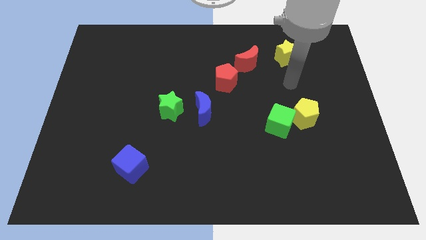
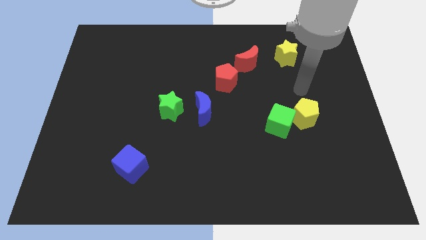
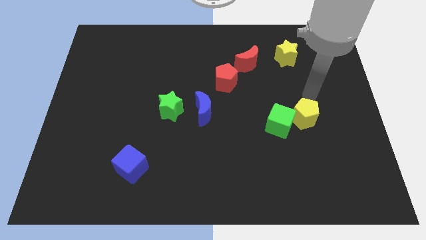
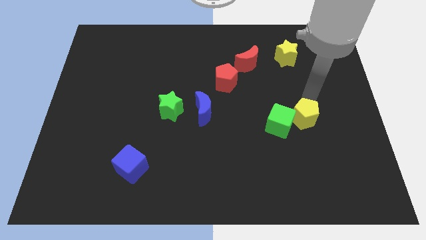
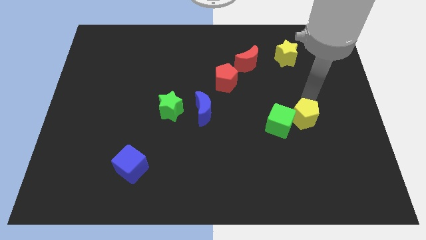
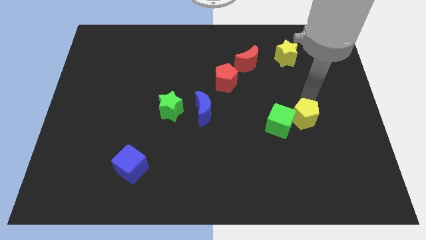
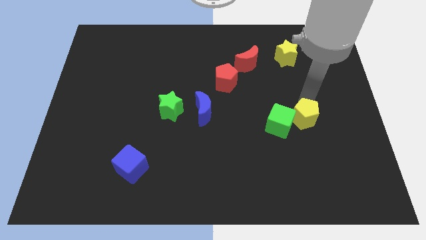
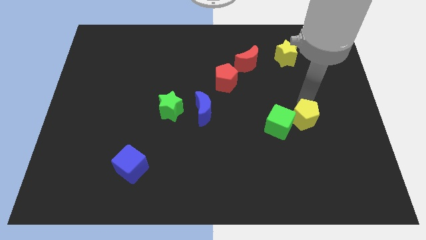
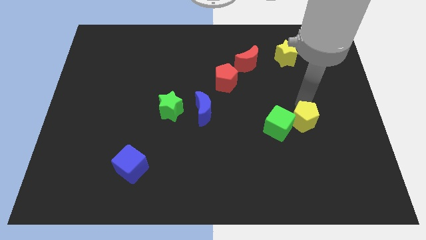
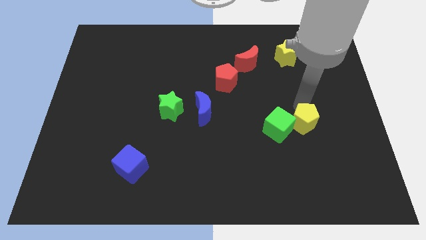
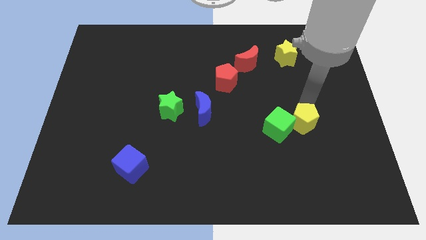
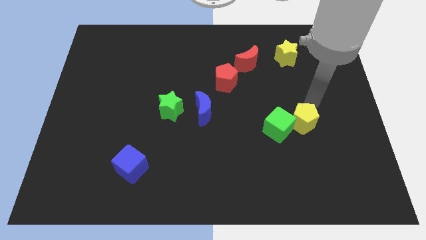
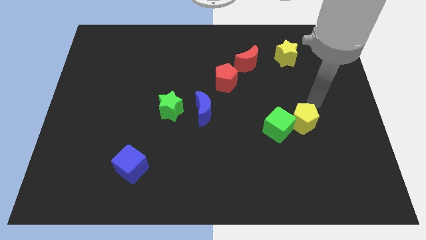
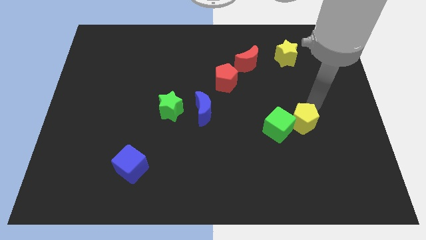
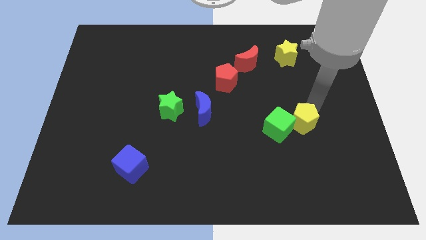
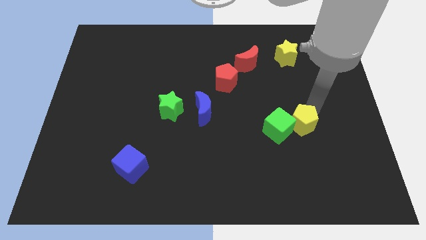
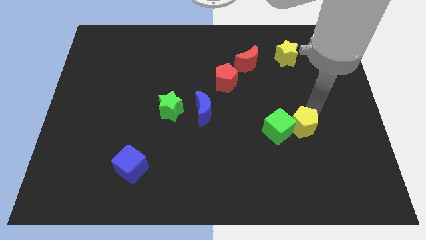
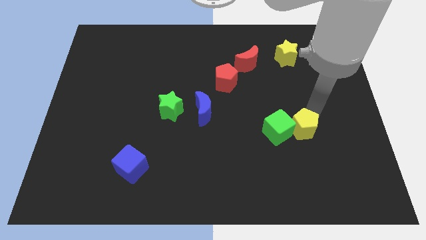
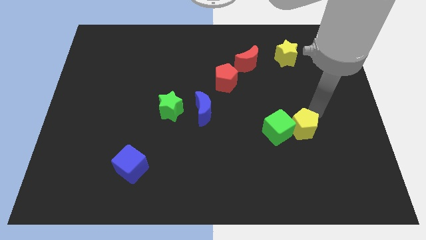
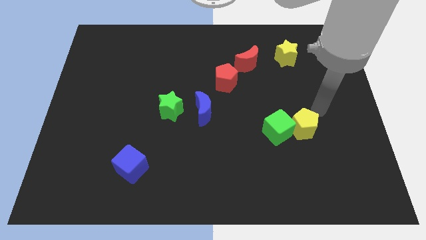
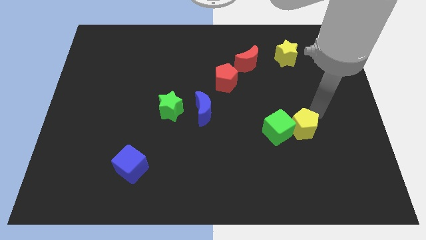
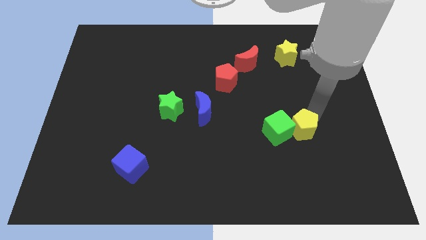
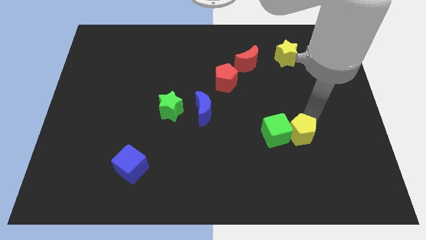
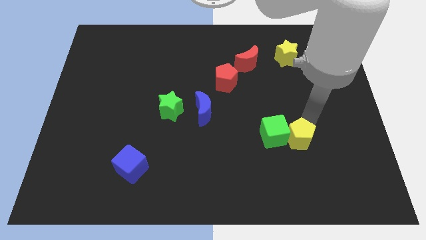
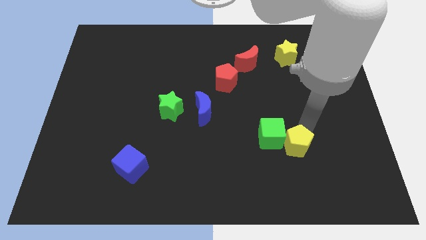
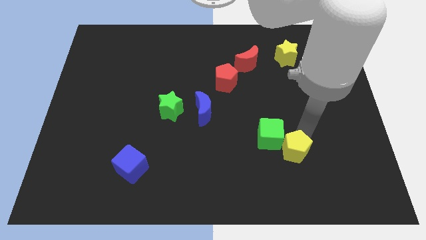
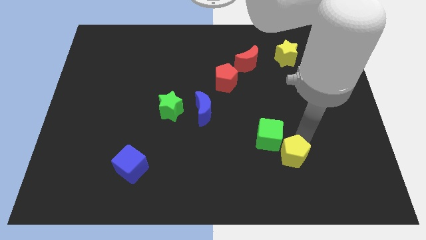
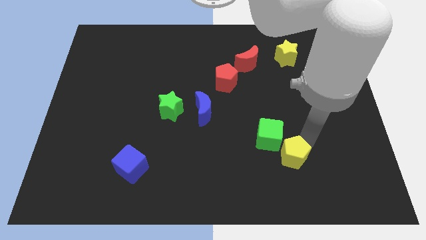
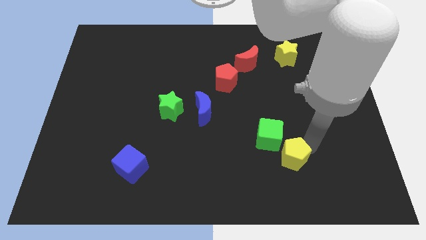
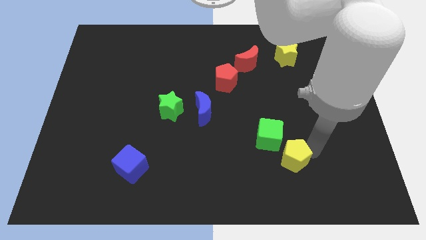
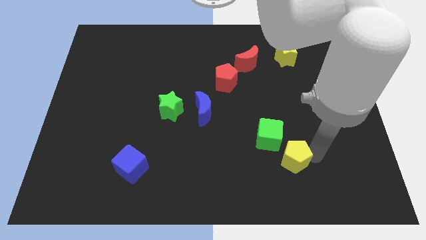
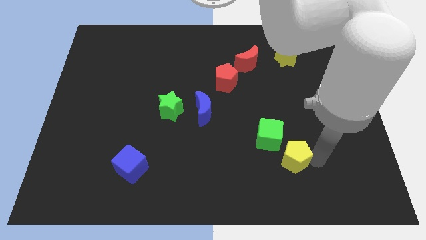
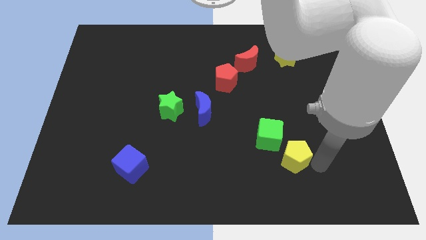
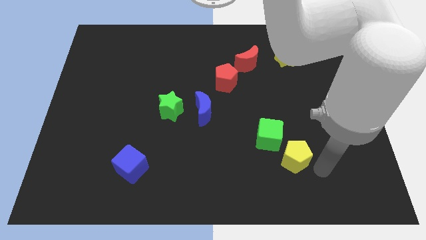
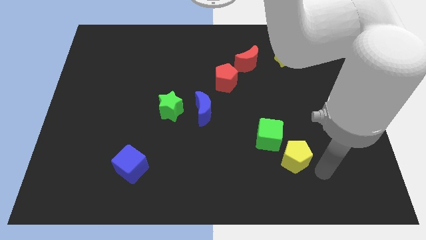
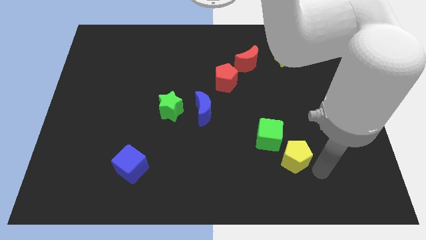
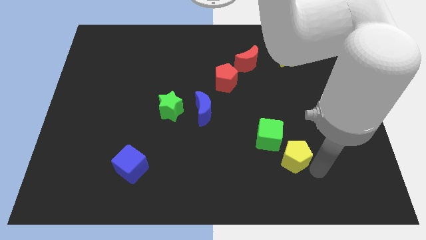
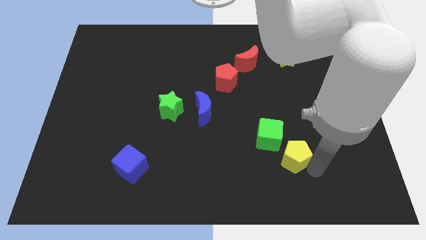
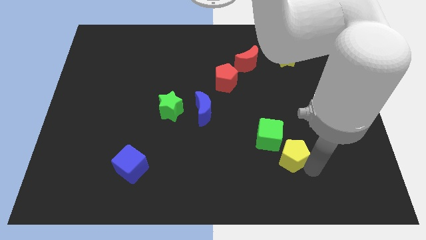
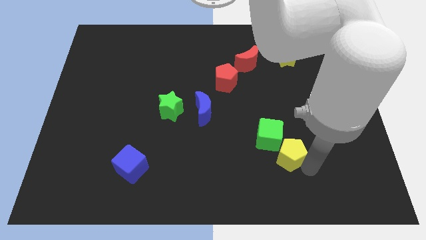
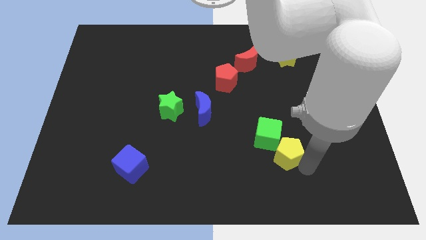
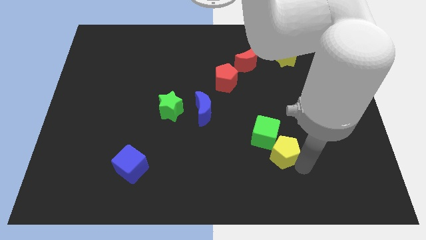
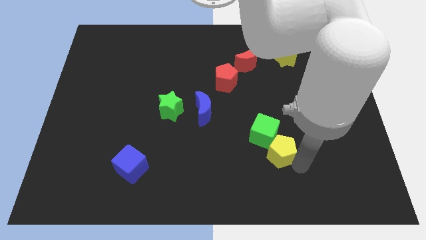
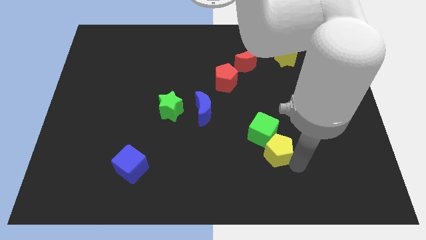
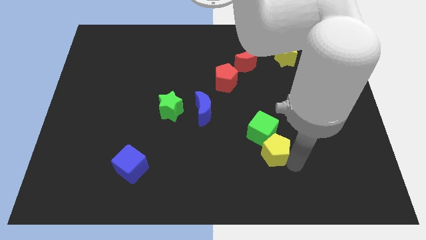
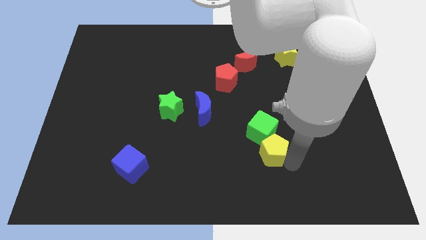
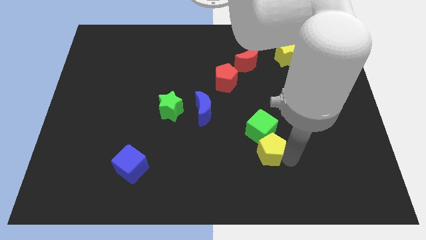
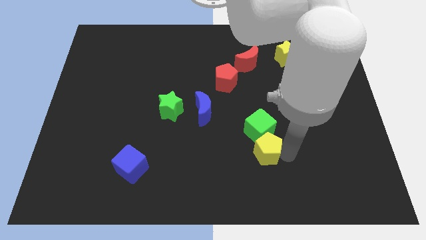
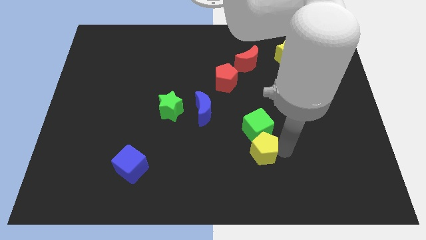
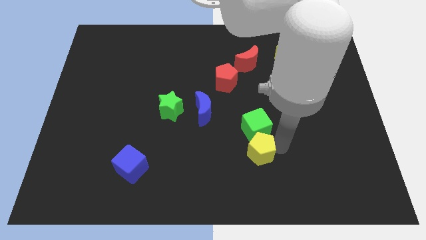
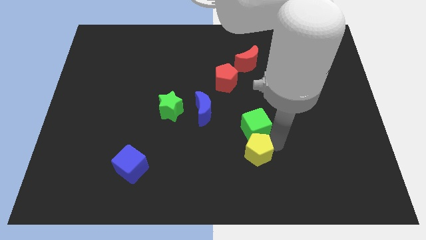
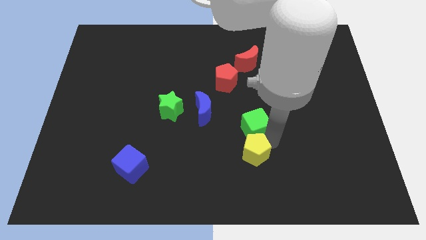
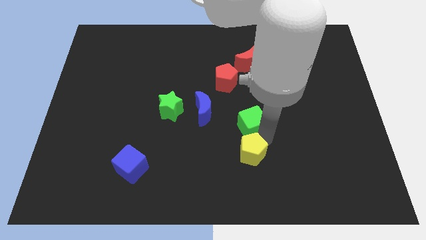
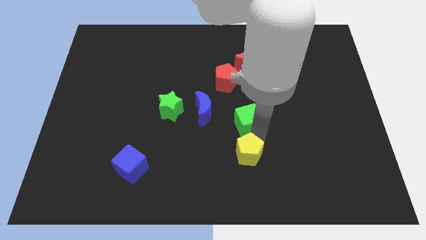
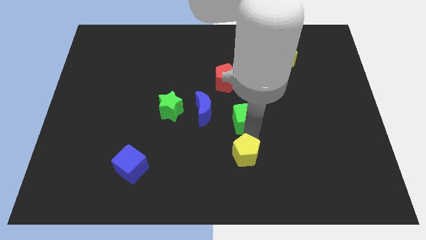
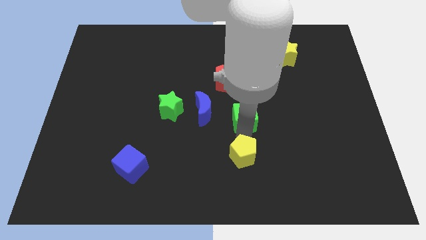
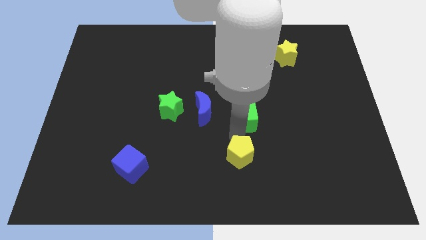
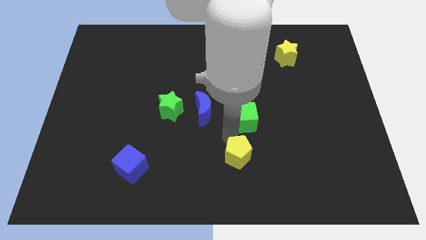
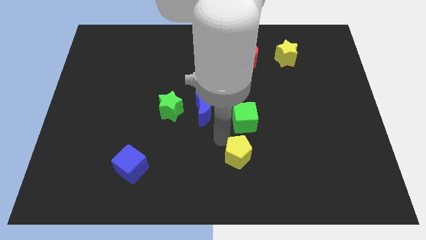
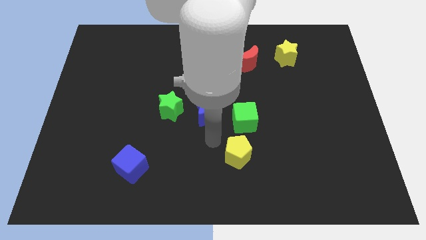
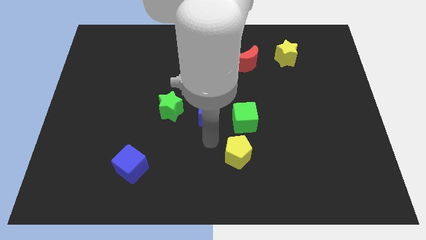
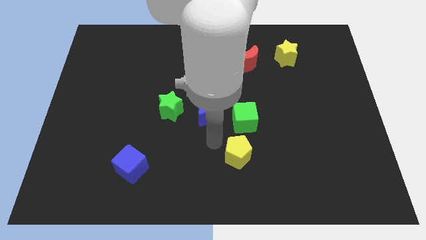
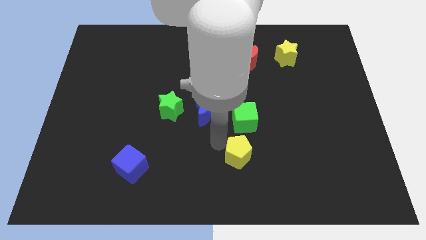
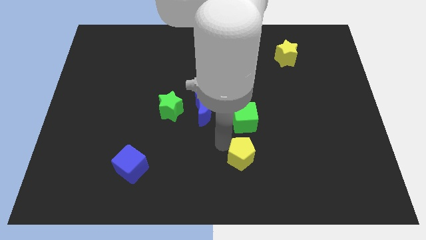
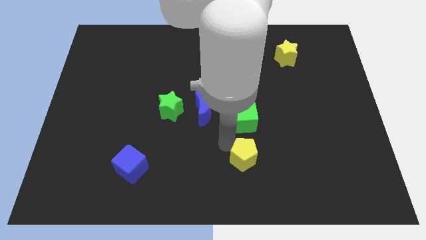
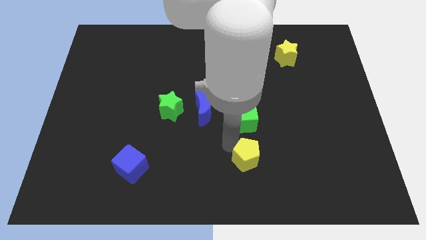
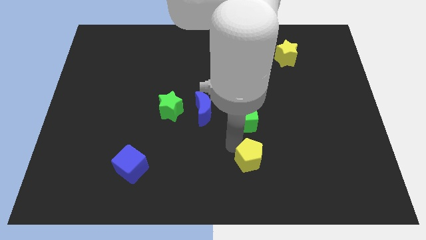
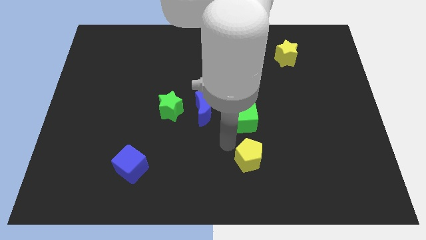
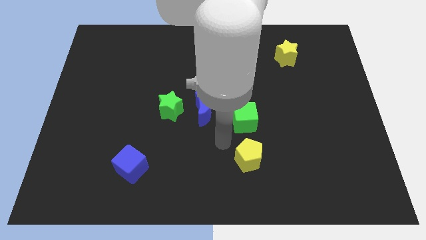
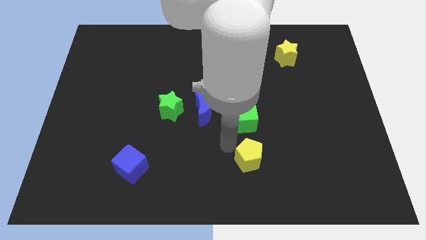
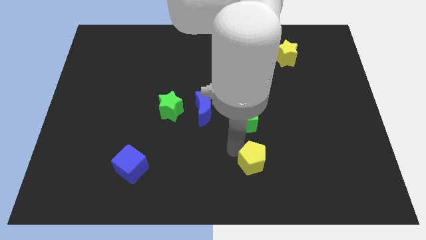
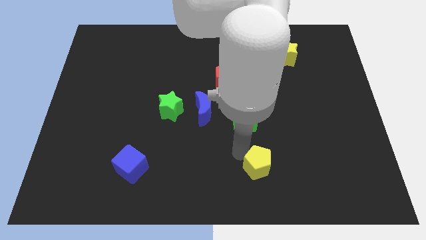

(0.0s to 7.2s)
push the yellow pentagon to the bottom
